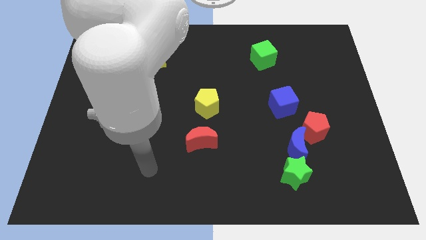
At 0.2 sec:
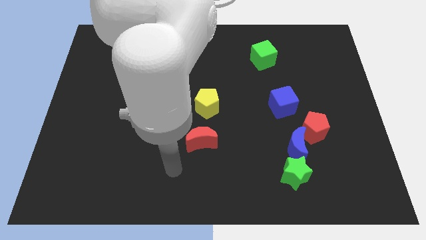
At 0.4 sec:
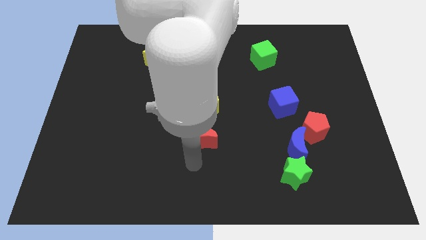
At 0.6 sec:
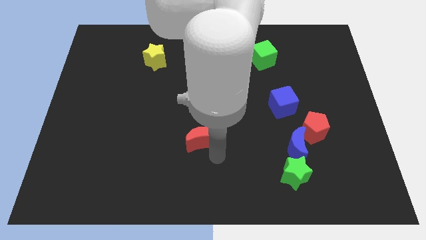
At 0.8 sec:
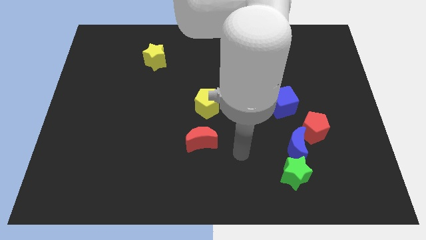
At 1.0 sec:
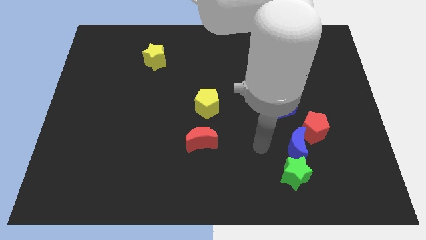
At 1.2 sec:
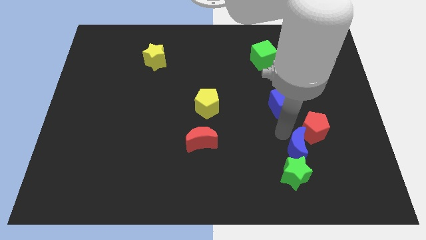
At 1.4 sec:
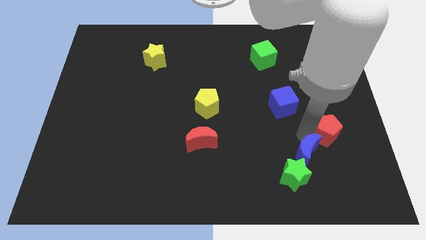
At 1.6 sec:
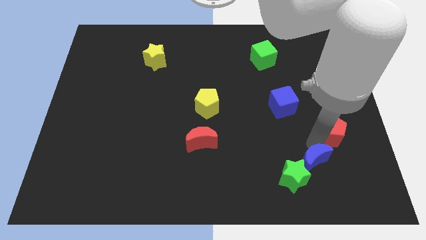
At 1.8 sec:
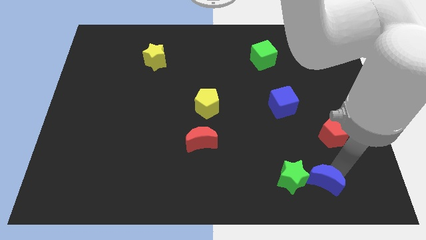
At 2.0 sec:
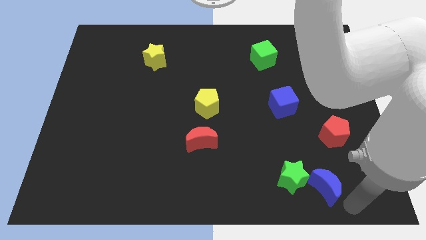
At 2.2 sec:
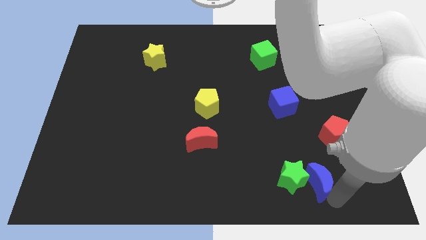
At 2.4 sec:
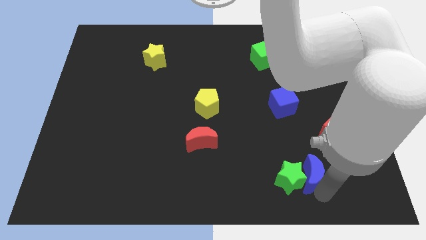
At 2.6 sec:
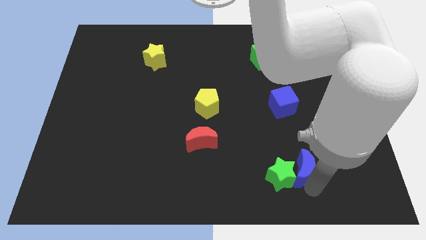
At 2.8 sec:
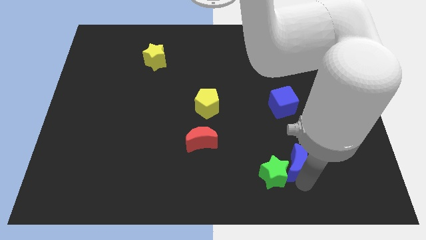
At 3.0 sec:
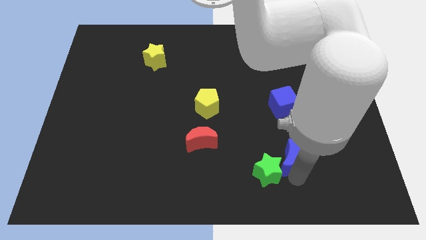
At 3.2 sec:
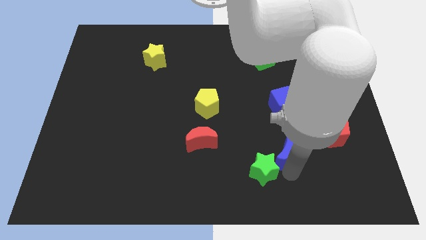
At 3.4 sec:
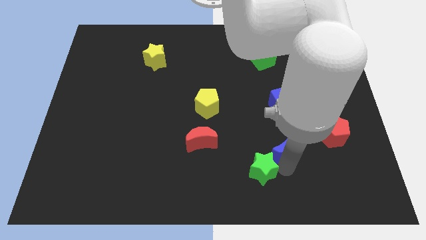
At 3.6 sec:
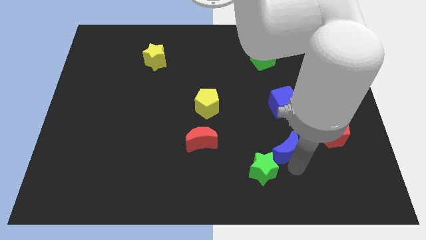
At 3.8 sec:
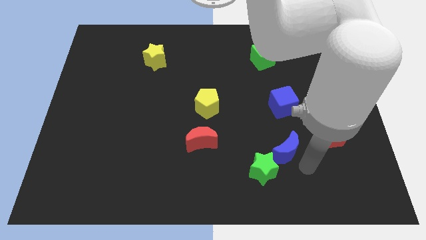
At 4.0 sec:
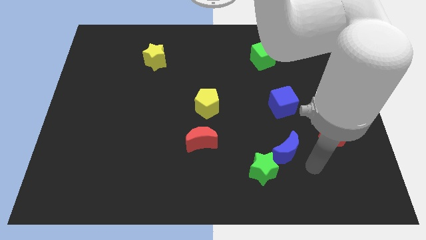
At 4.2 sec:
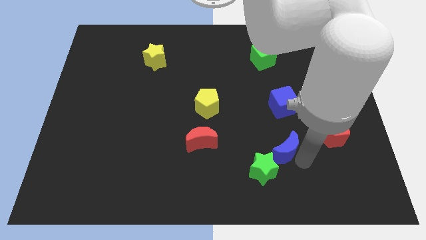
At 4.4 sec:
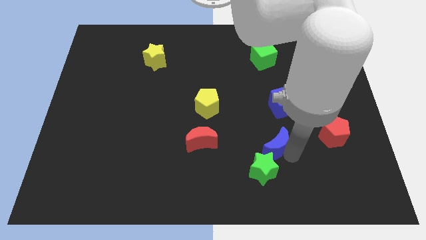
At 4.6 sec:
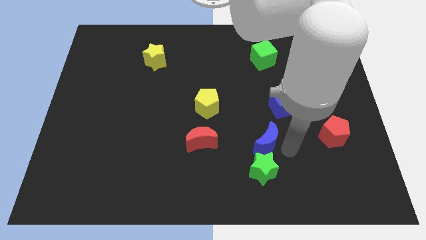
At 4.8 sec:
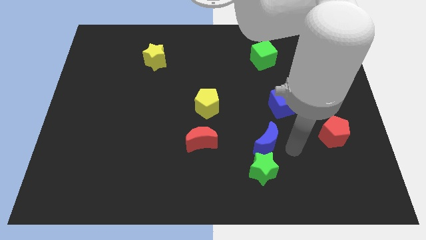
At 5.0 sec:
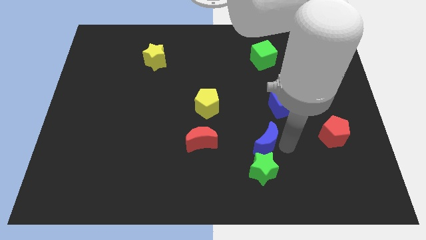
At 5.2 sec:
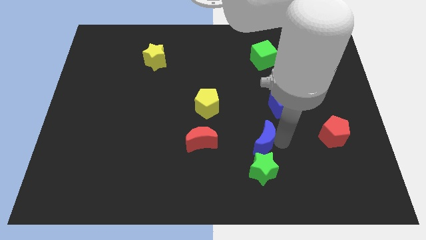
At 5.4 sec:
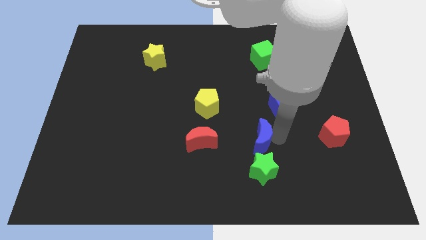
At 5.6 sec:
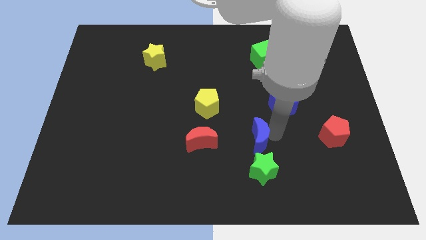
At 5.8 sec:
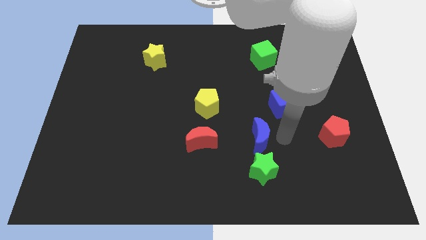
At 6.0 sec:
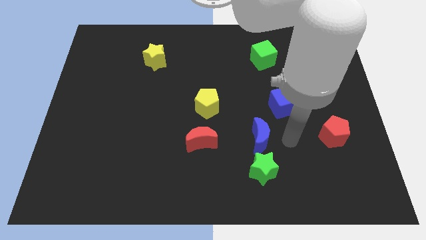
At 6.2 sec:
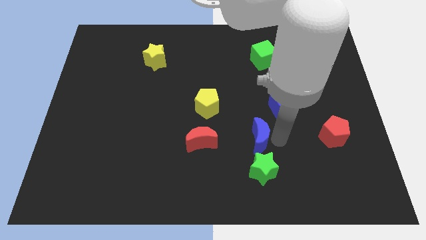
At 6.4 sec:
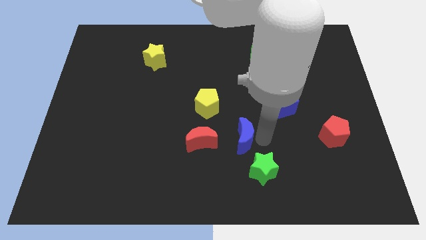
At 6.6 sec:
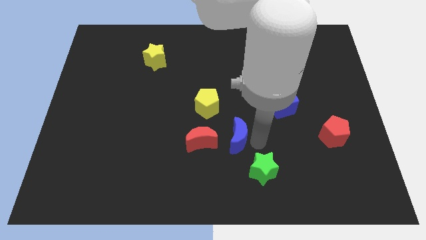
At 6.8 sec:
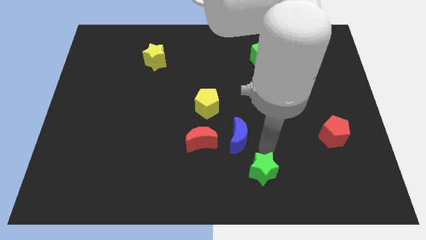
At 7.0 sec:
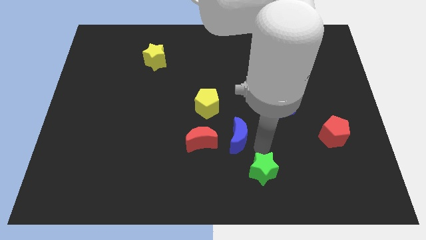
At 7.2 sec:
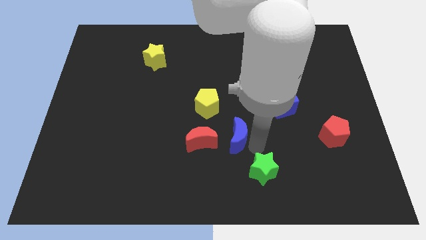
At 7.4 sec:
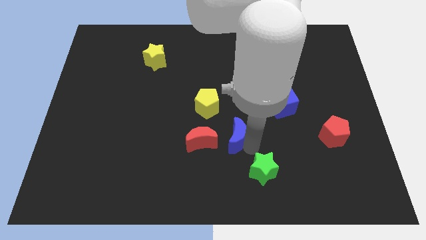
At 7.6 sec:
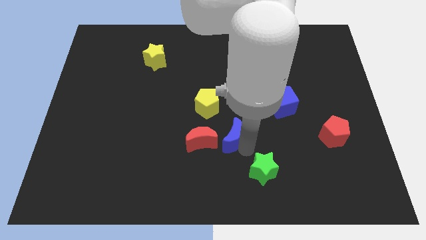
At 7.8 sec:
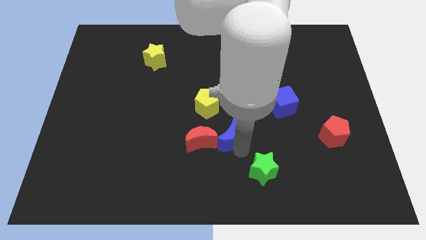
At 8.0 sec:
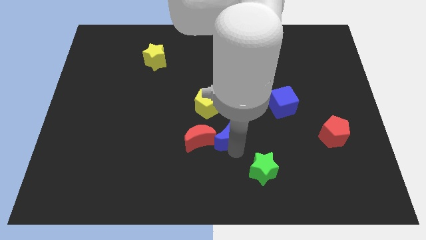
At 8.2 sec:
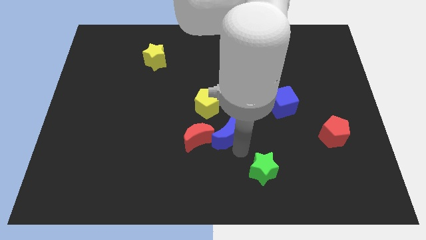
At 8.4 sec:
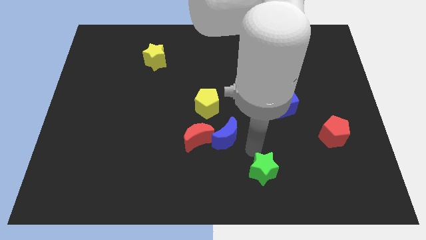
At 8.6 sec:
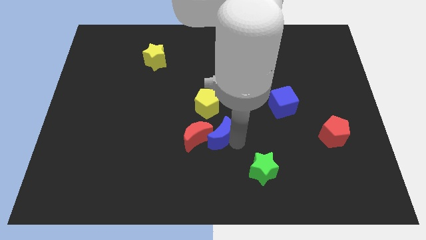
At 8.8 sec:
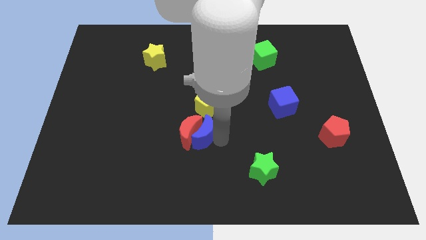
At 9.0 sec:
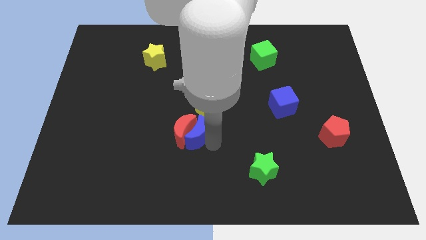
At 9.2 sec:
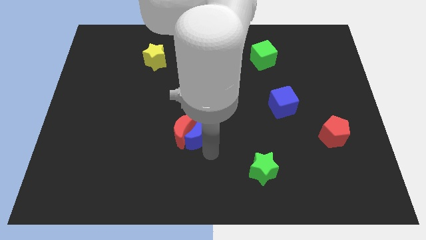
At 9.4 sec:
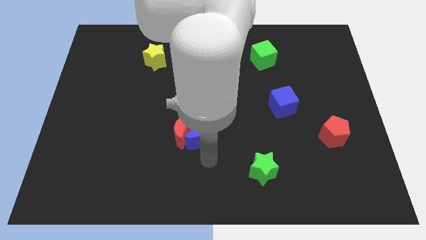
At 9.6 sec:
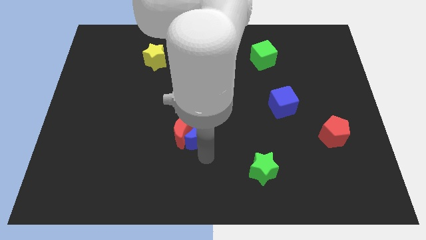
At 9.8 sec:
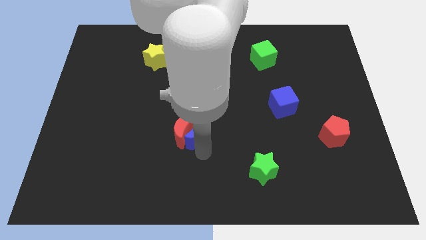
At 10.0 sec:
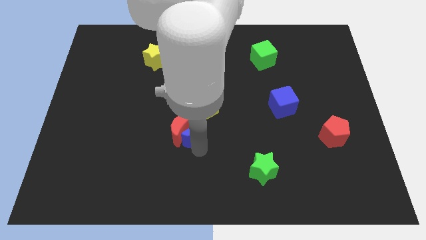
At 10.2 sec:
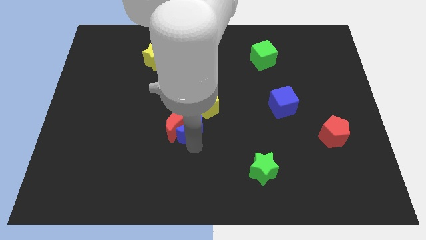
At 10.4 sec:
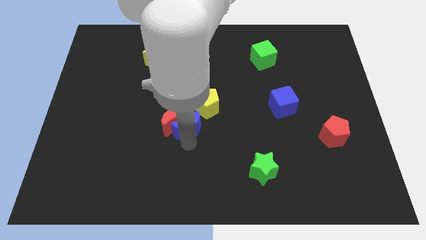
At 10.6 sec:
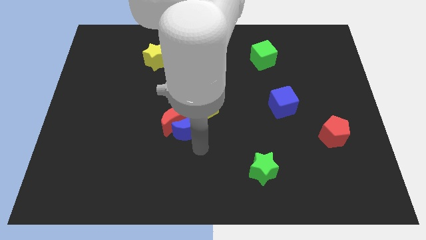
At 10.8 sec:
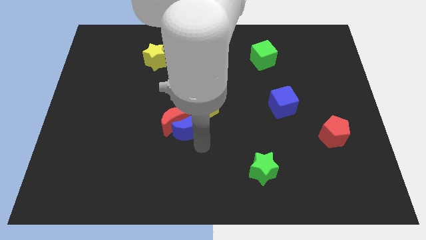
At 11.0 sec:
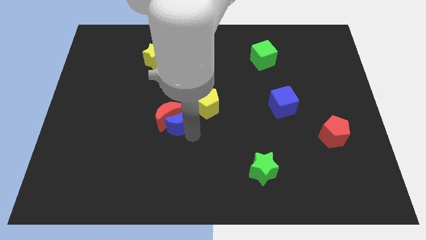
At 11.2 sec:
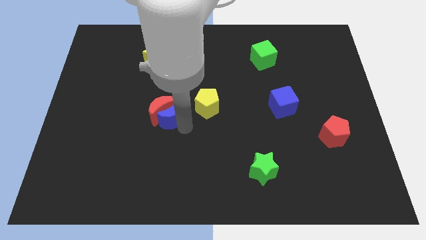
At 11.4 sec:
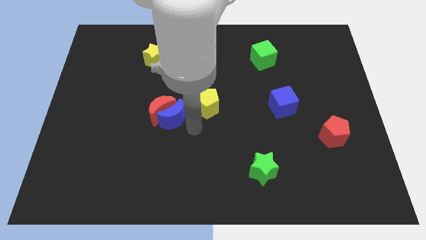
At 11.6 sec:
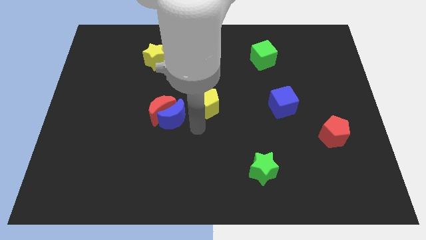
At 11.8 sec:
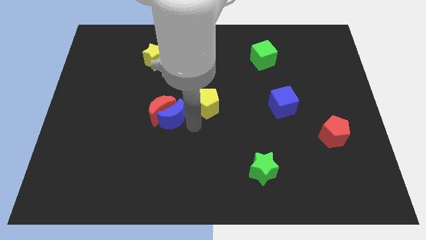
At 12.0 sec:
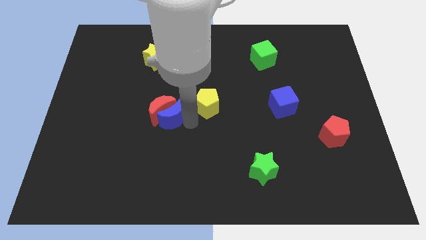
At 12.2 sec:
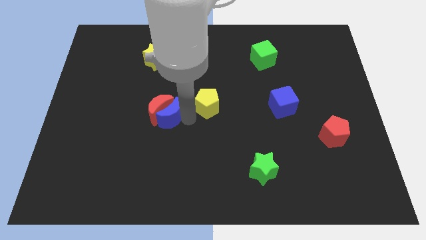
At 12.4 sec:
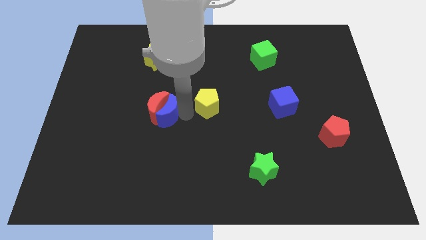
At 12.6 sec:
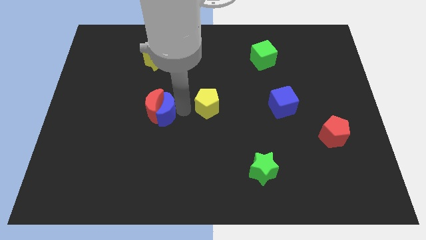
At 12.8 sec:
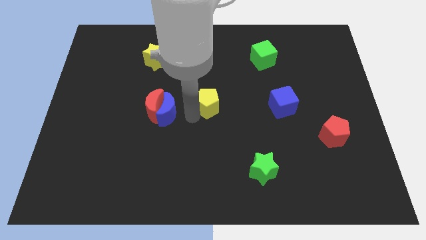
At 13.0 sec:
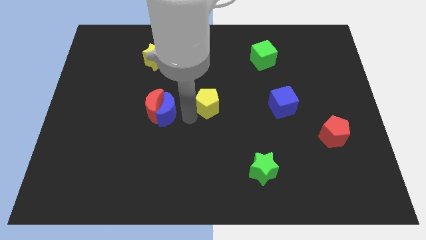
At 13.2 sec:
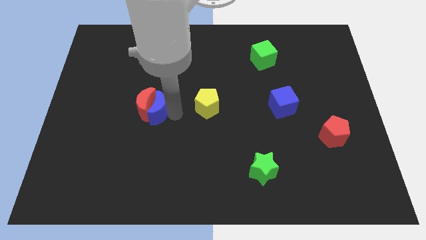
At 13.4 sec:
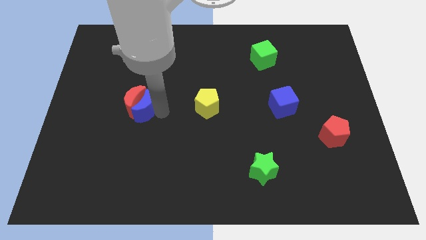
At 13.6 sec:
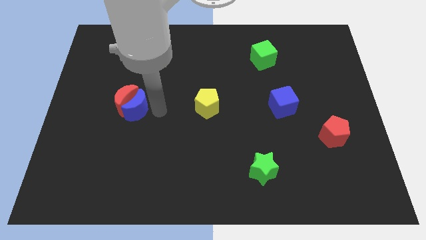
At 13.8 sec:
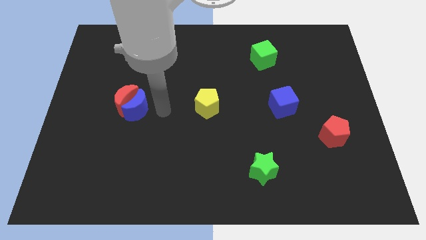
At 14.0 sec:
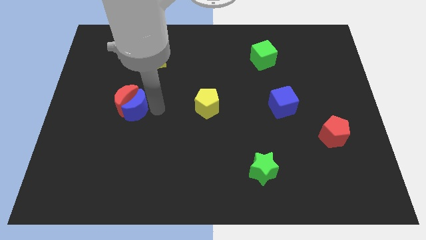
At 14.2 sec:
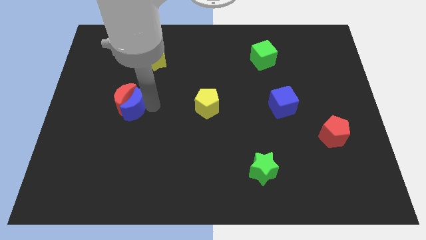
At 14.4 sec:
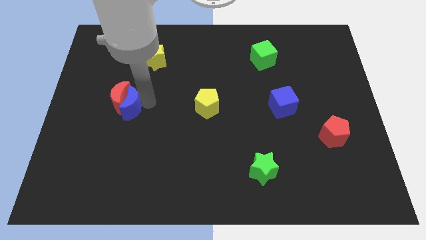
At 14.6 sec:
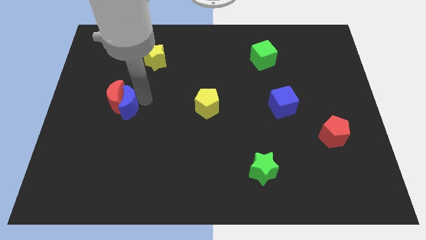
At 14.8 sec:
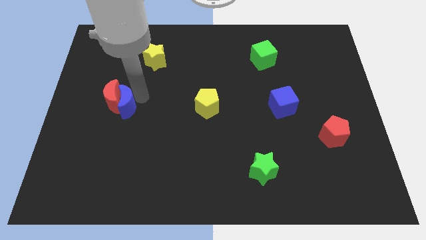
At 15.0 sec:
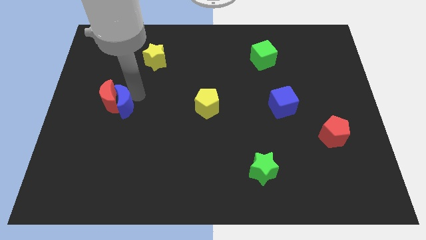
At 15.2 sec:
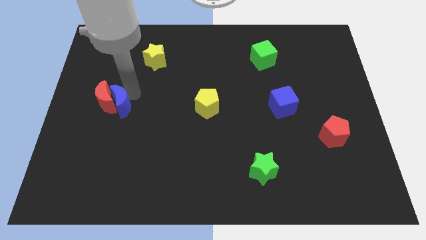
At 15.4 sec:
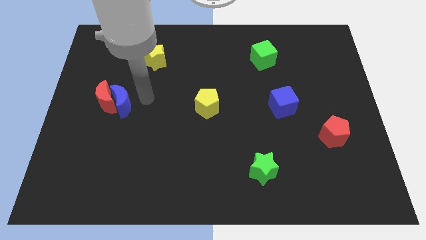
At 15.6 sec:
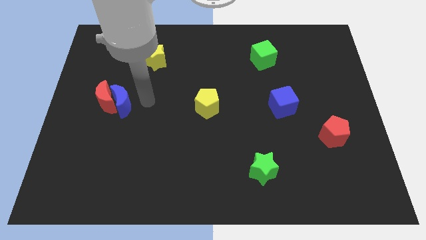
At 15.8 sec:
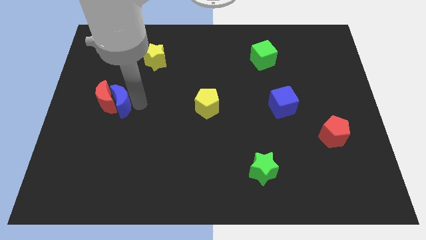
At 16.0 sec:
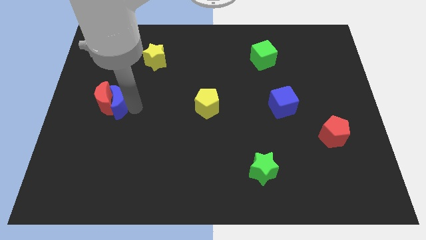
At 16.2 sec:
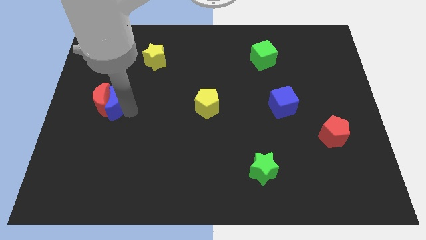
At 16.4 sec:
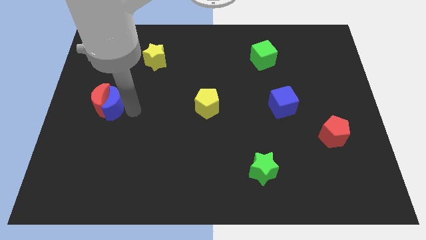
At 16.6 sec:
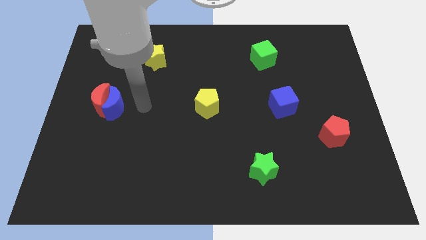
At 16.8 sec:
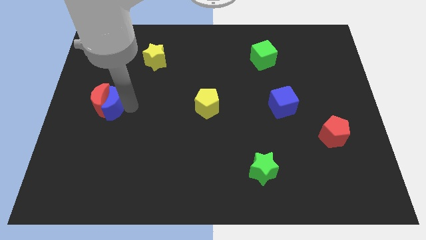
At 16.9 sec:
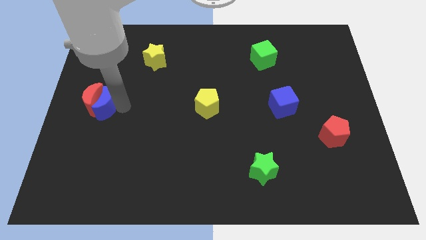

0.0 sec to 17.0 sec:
push the blue moon to the center left
